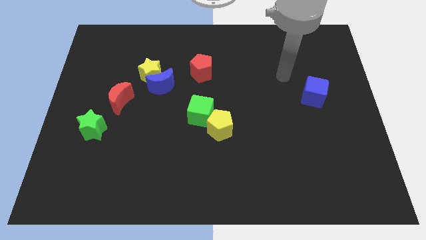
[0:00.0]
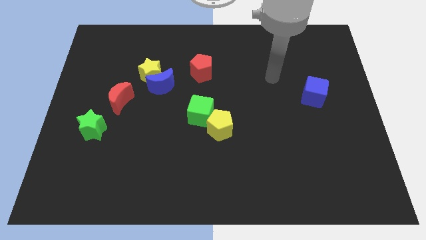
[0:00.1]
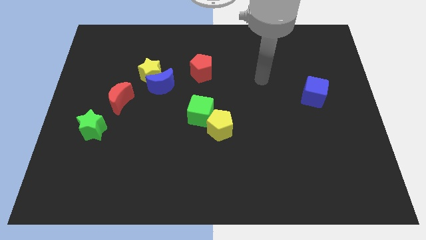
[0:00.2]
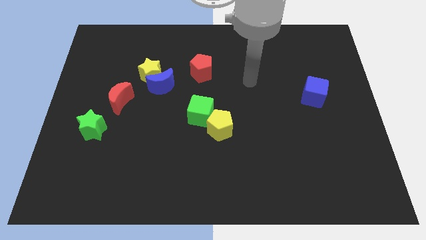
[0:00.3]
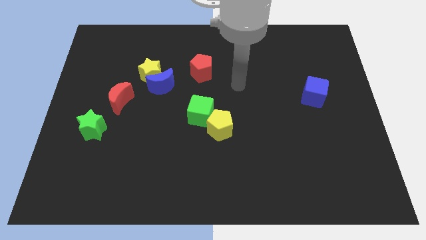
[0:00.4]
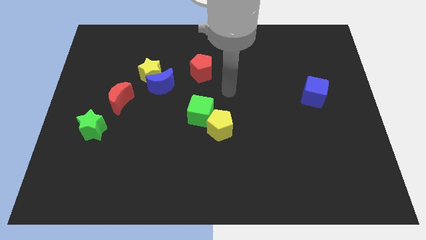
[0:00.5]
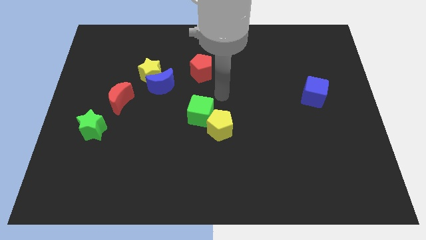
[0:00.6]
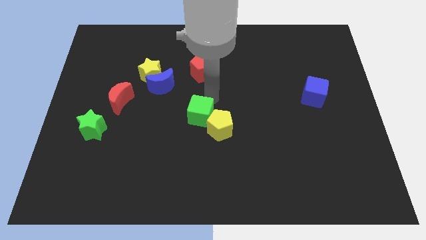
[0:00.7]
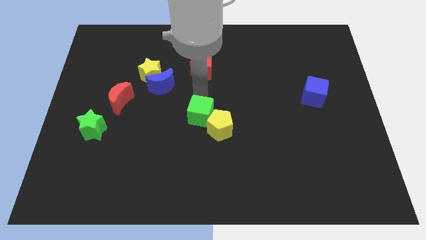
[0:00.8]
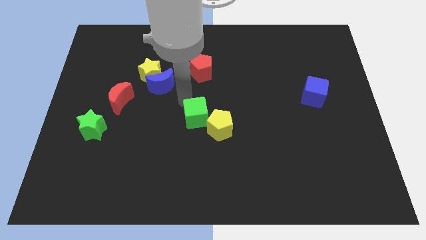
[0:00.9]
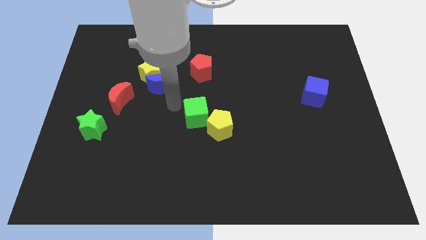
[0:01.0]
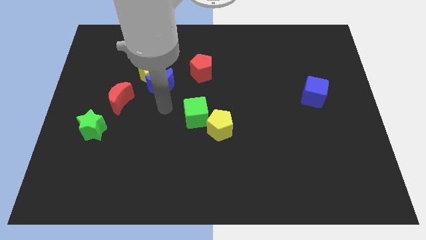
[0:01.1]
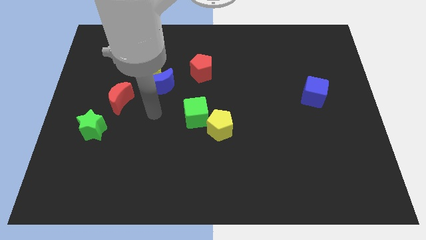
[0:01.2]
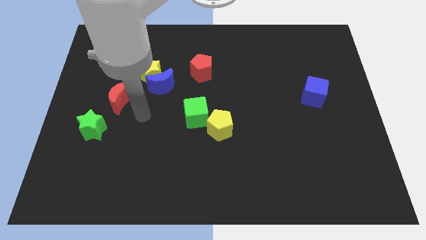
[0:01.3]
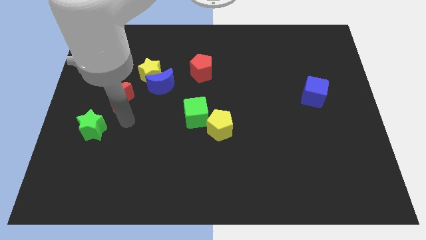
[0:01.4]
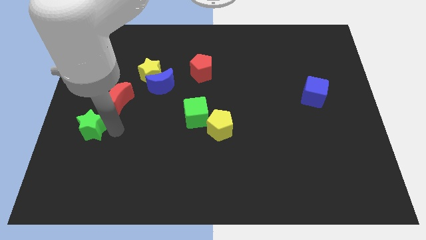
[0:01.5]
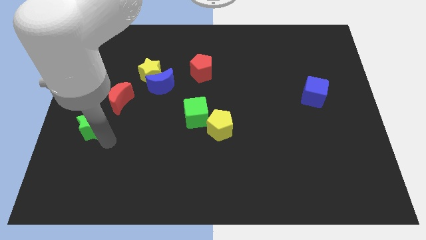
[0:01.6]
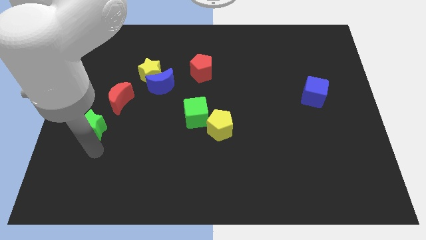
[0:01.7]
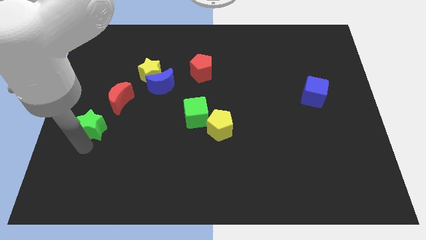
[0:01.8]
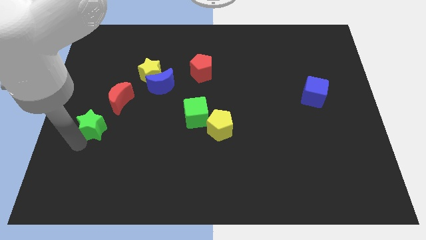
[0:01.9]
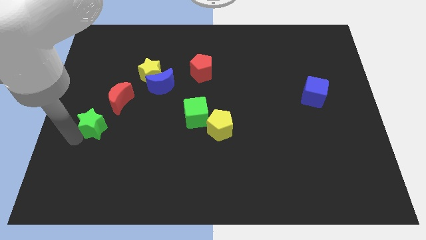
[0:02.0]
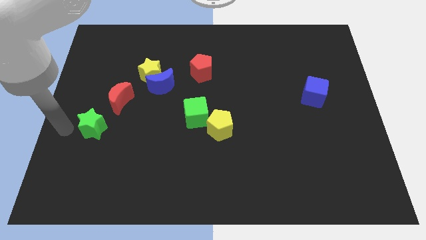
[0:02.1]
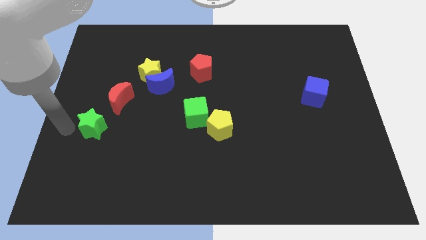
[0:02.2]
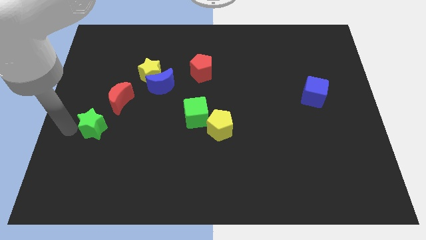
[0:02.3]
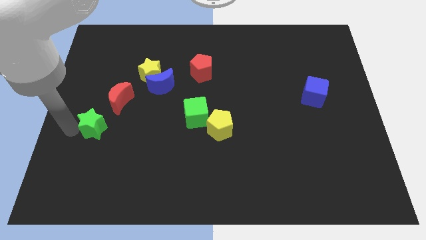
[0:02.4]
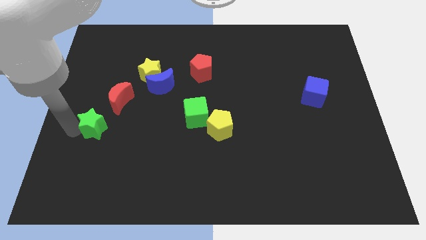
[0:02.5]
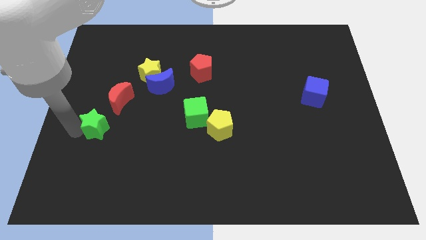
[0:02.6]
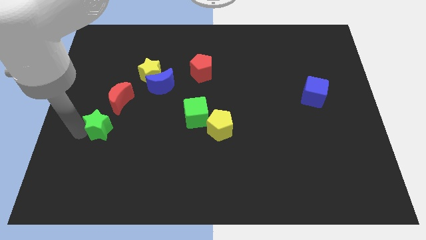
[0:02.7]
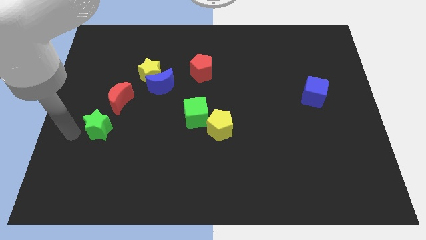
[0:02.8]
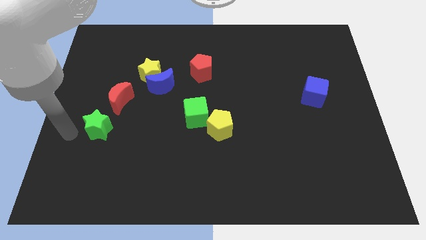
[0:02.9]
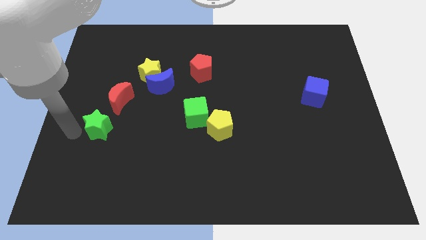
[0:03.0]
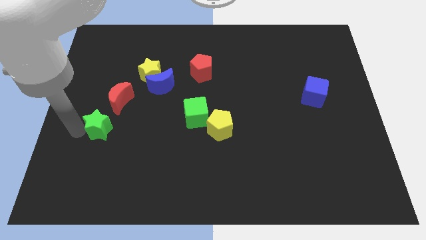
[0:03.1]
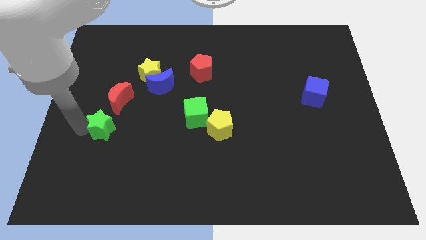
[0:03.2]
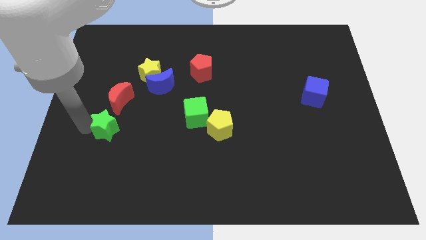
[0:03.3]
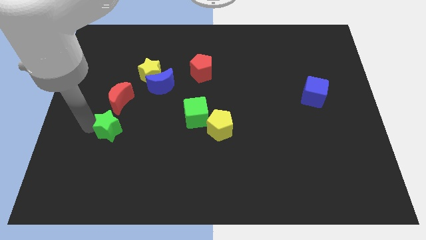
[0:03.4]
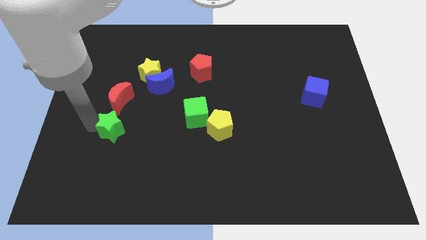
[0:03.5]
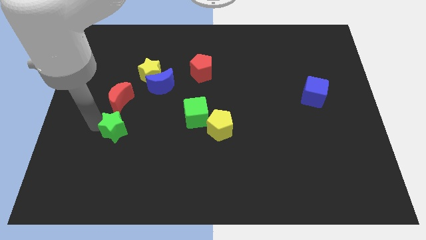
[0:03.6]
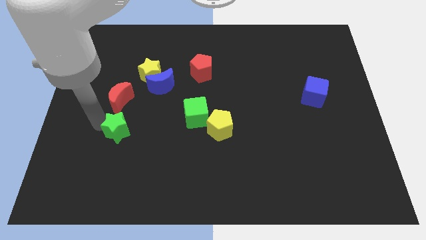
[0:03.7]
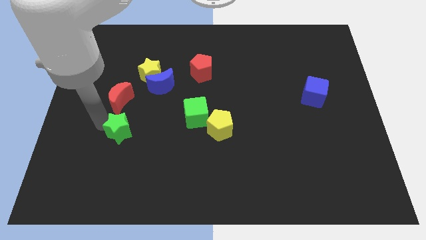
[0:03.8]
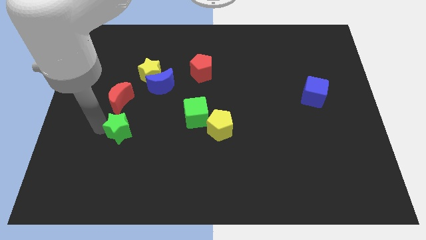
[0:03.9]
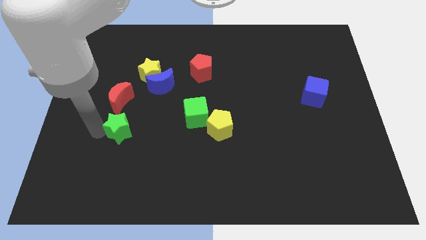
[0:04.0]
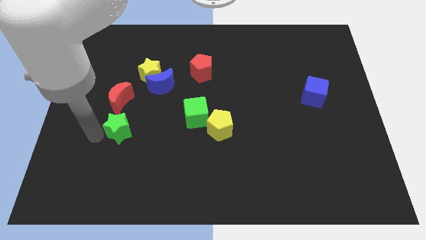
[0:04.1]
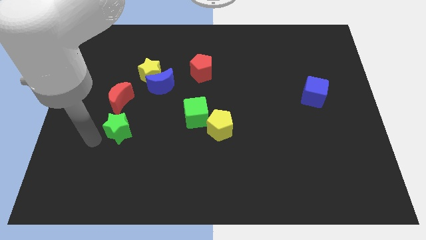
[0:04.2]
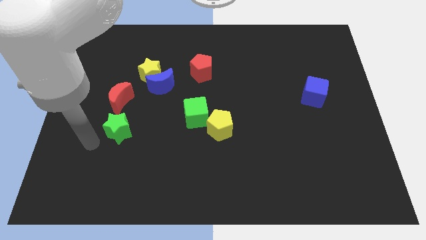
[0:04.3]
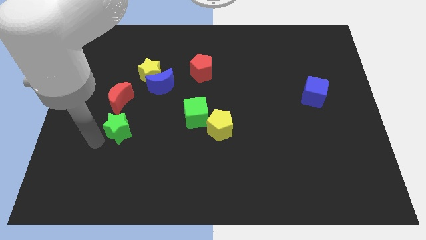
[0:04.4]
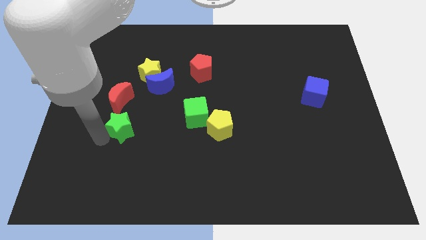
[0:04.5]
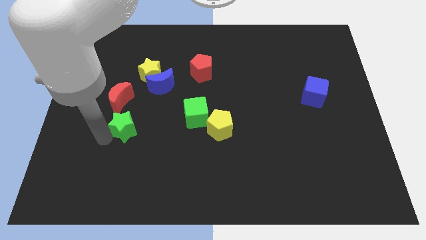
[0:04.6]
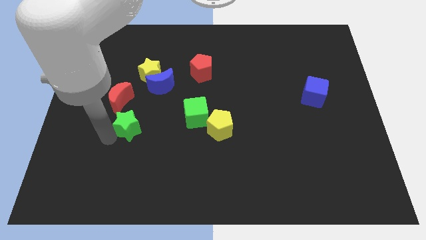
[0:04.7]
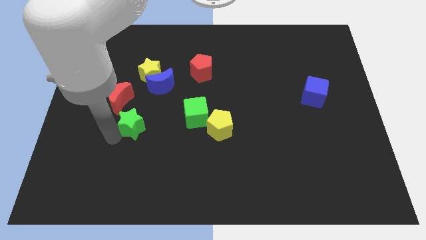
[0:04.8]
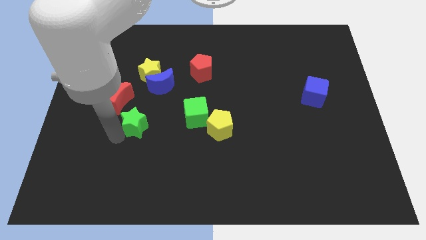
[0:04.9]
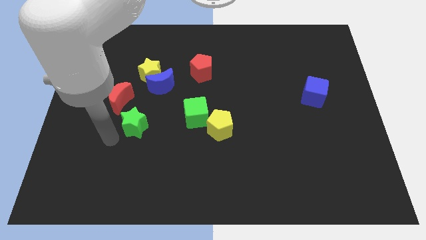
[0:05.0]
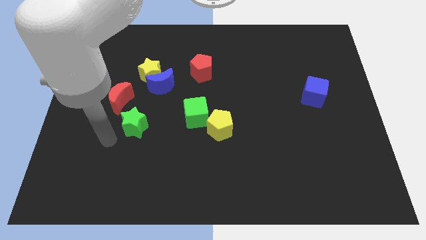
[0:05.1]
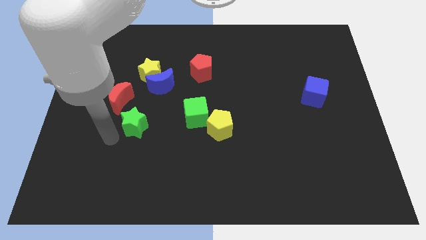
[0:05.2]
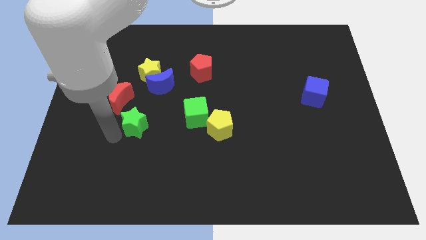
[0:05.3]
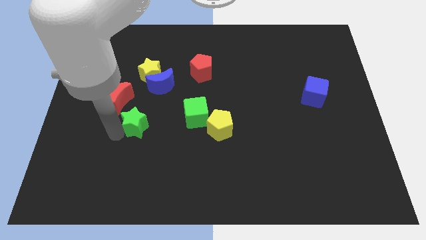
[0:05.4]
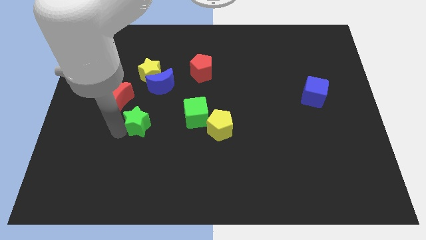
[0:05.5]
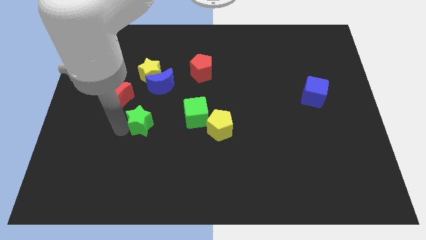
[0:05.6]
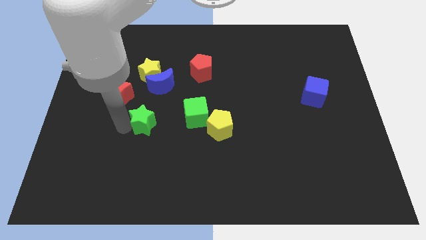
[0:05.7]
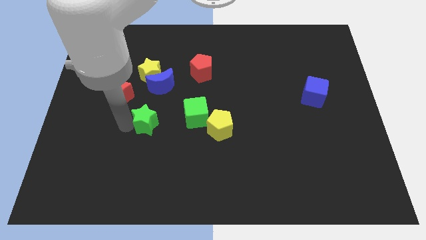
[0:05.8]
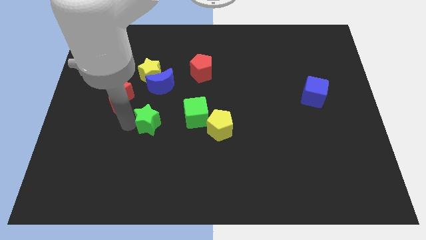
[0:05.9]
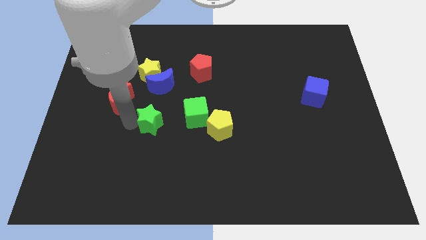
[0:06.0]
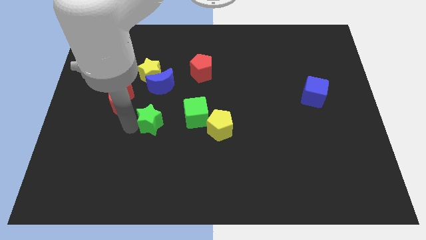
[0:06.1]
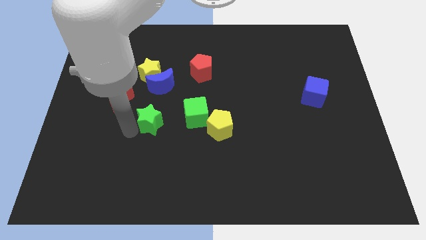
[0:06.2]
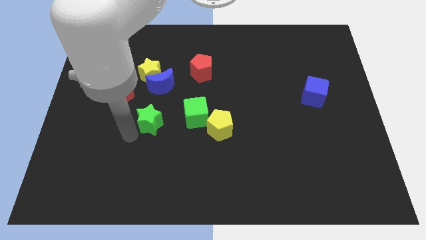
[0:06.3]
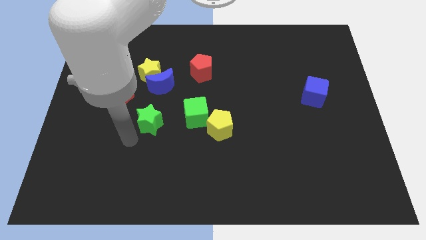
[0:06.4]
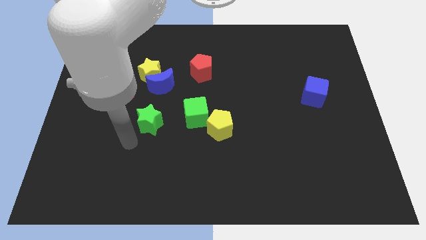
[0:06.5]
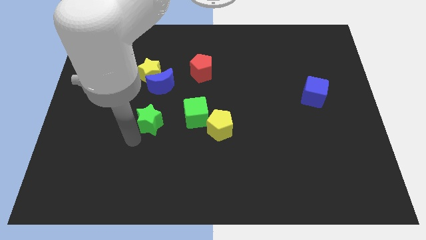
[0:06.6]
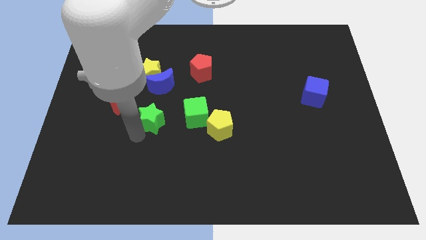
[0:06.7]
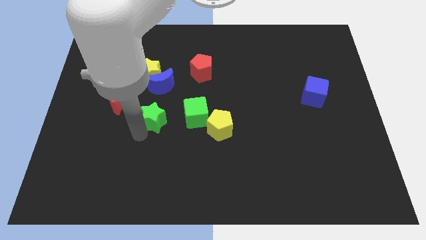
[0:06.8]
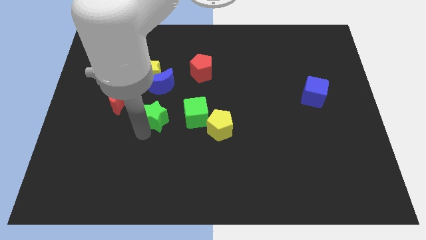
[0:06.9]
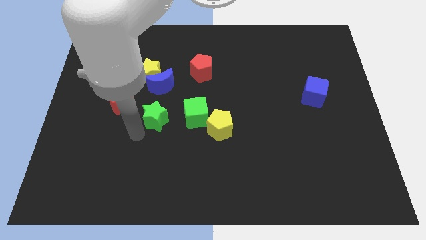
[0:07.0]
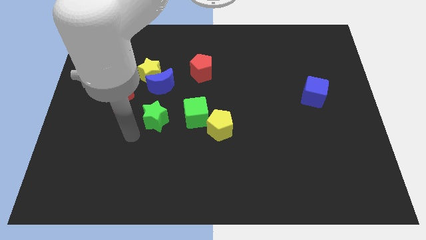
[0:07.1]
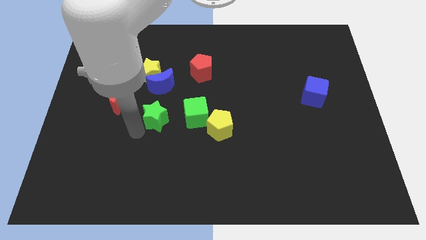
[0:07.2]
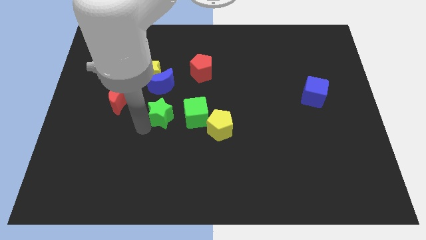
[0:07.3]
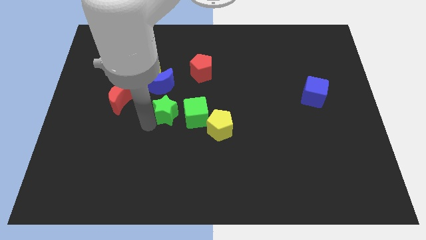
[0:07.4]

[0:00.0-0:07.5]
move the green star to the middle
